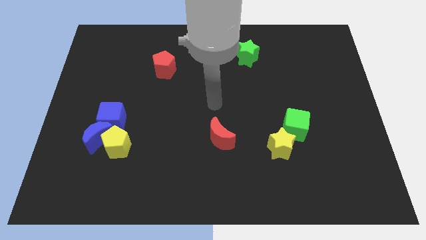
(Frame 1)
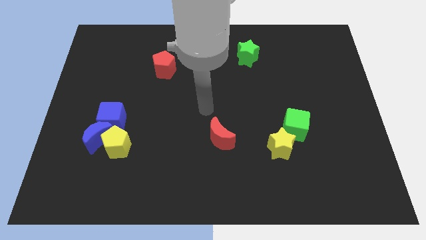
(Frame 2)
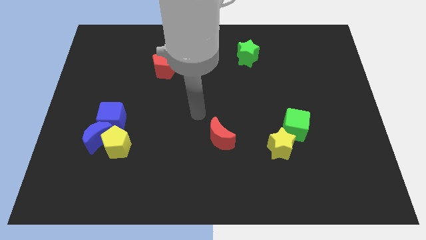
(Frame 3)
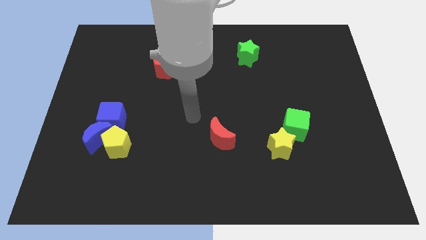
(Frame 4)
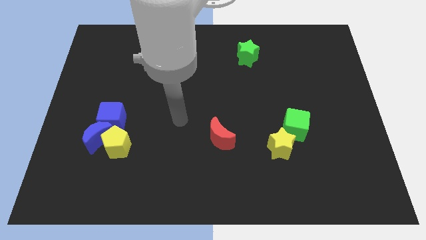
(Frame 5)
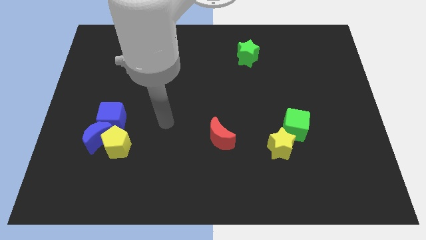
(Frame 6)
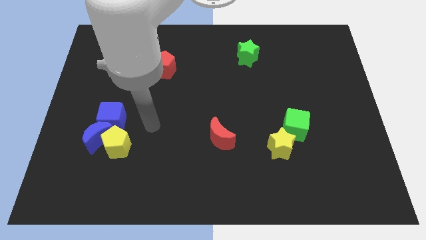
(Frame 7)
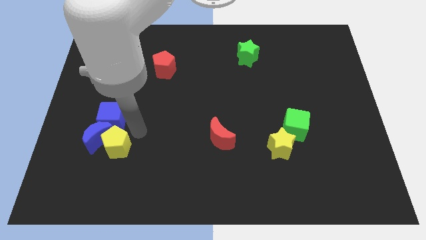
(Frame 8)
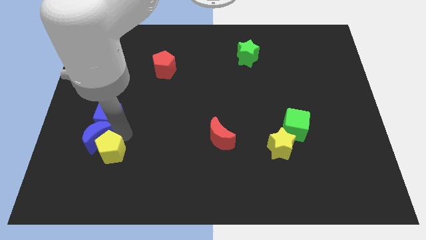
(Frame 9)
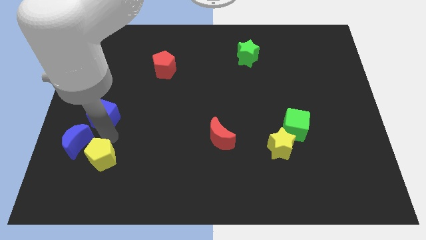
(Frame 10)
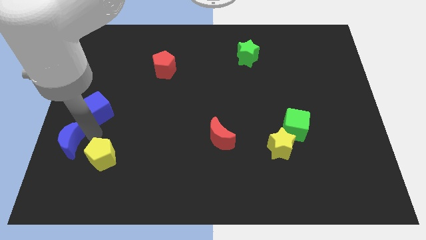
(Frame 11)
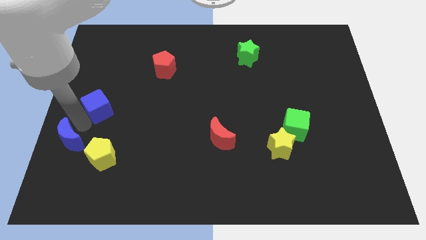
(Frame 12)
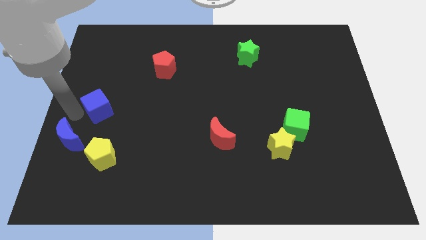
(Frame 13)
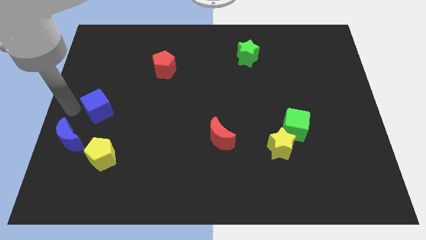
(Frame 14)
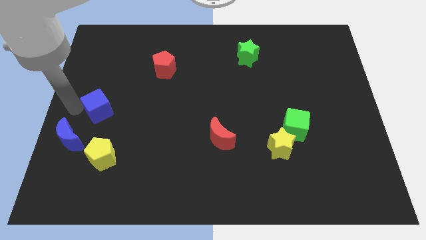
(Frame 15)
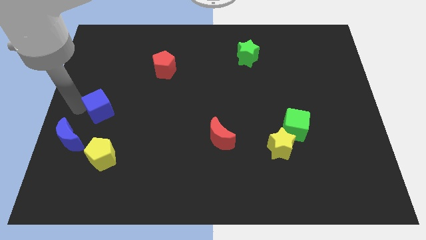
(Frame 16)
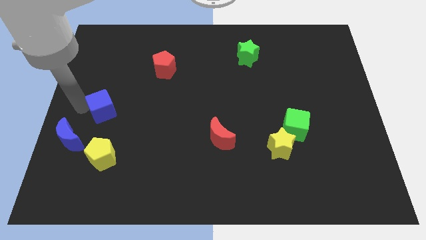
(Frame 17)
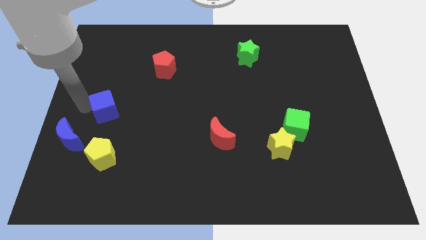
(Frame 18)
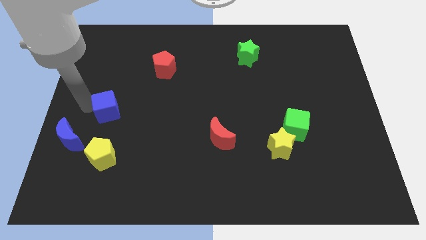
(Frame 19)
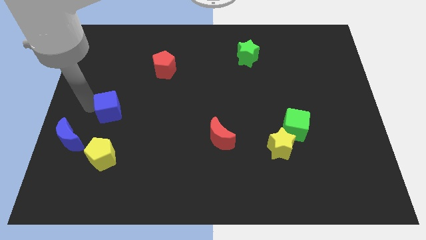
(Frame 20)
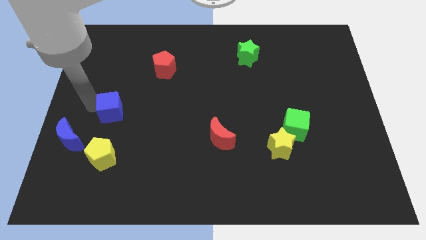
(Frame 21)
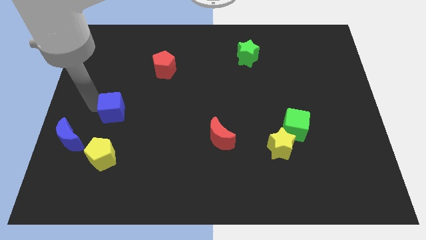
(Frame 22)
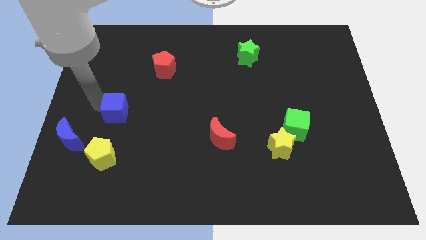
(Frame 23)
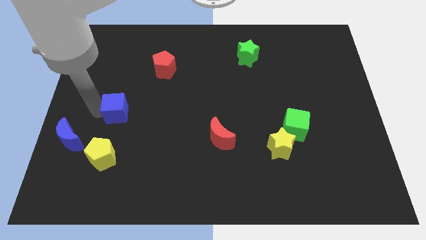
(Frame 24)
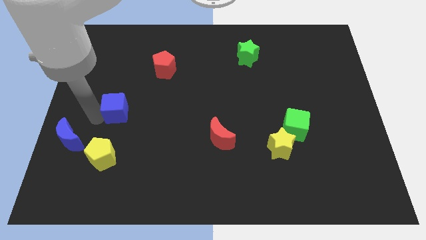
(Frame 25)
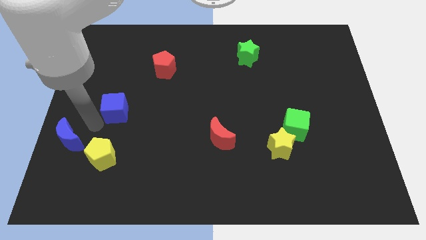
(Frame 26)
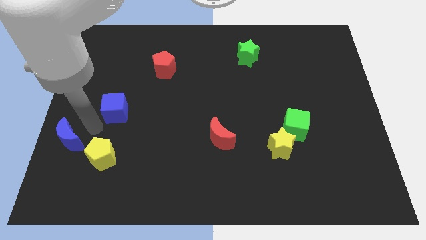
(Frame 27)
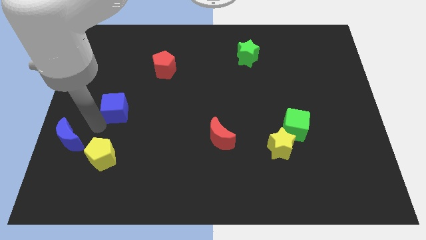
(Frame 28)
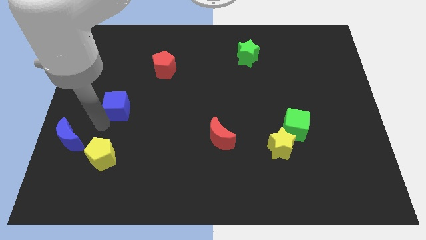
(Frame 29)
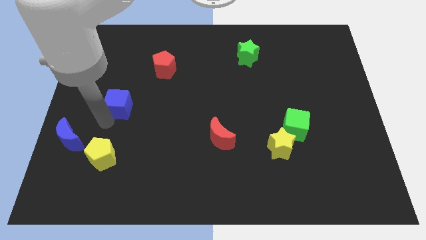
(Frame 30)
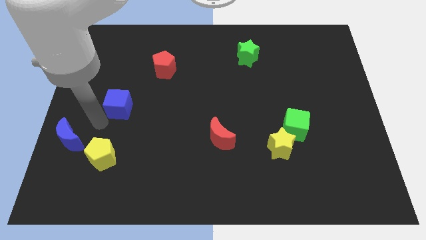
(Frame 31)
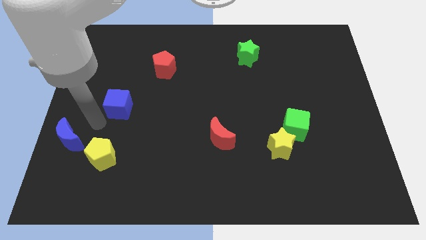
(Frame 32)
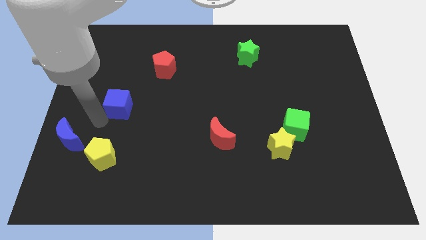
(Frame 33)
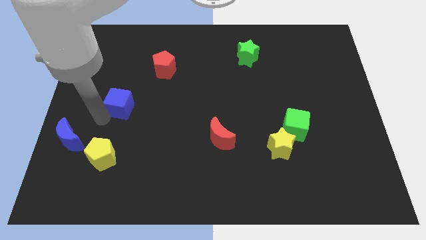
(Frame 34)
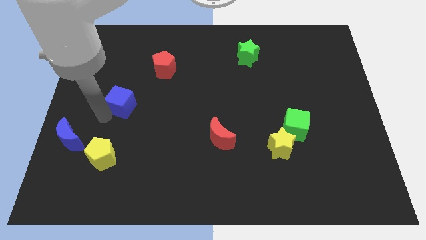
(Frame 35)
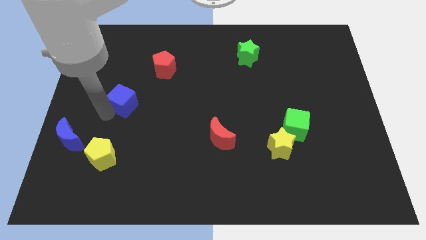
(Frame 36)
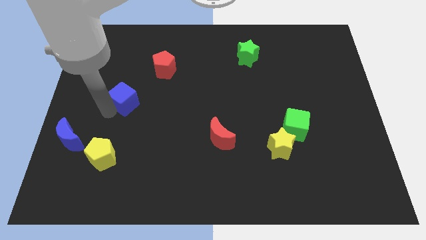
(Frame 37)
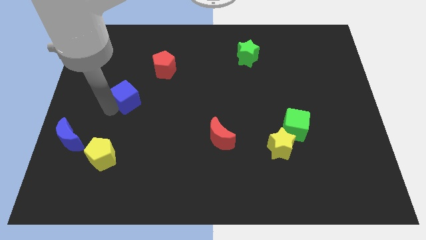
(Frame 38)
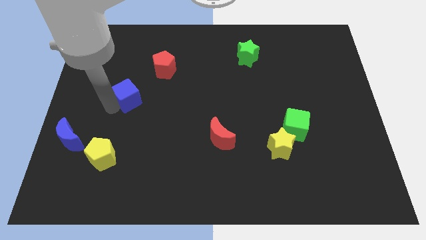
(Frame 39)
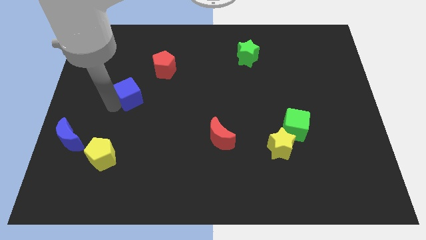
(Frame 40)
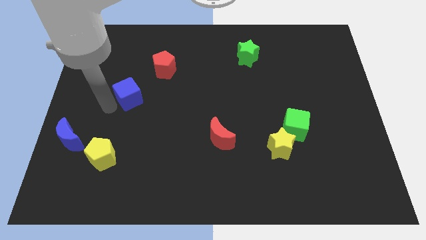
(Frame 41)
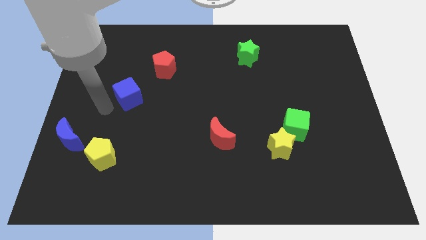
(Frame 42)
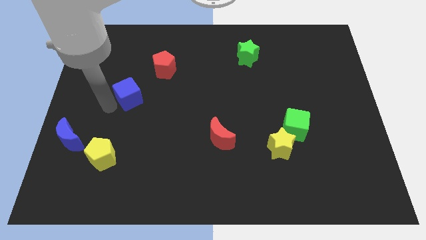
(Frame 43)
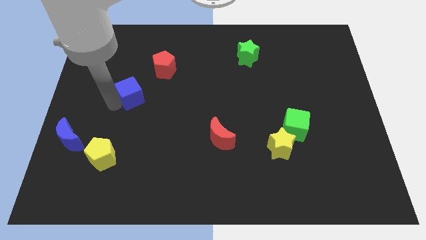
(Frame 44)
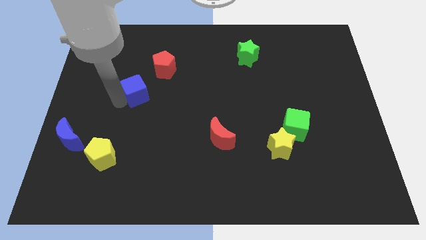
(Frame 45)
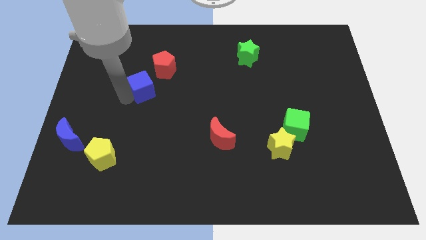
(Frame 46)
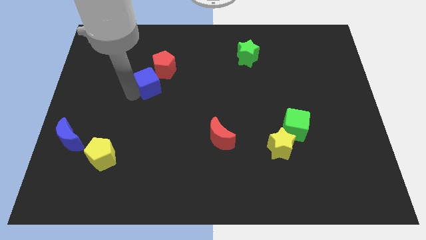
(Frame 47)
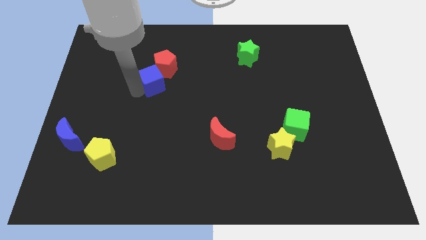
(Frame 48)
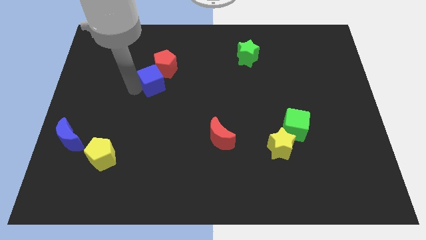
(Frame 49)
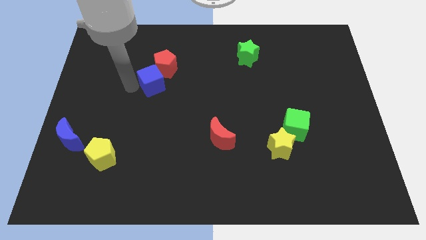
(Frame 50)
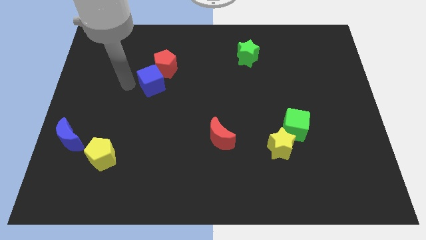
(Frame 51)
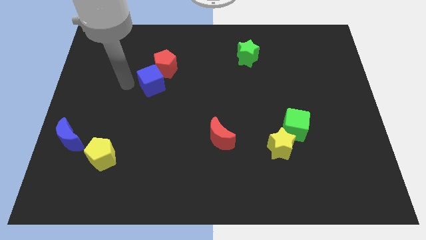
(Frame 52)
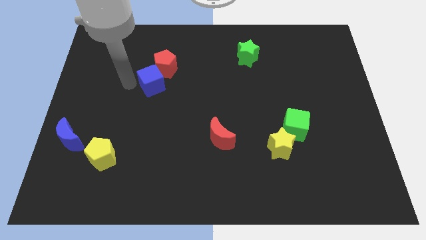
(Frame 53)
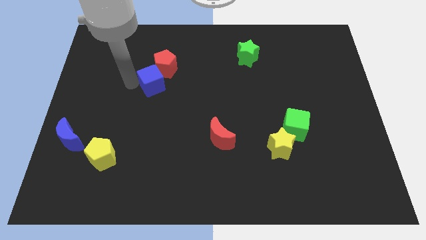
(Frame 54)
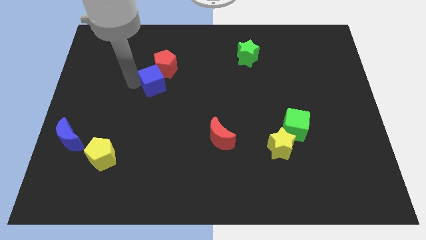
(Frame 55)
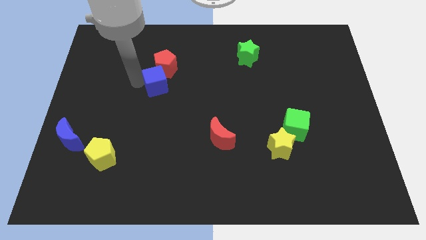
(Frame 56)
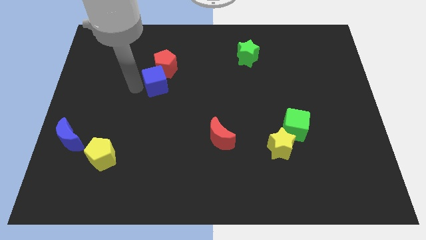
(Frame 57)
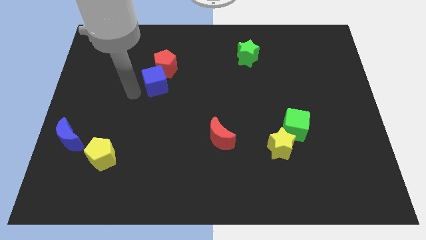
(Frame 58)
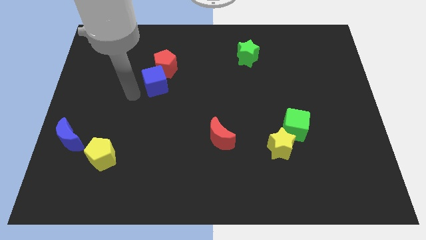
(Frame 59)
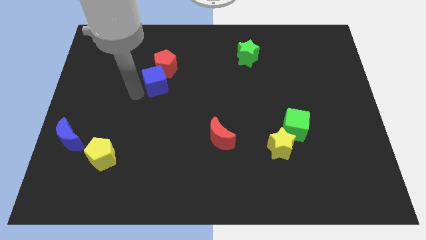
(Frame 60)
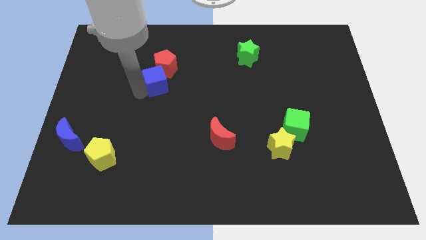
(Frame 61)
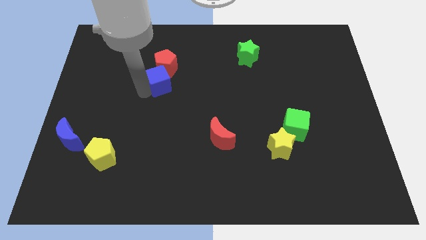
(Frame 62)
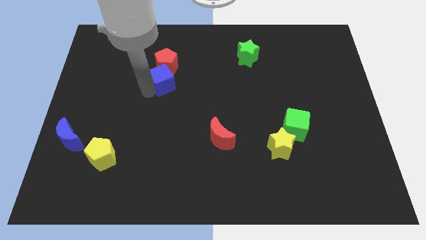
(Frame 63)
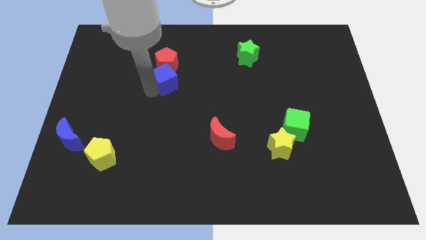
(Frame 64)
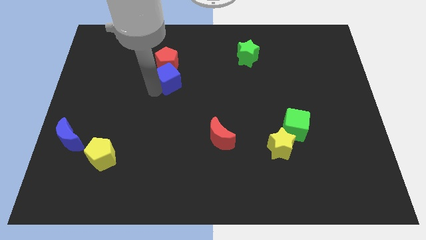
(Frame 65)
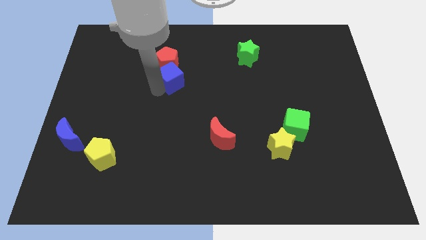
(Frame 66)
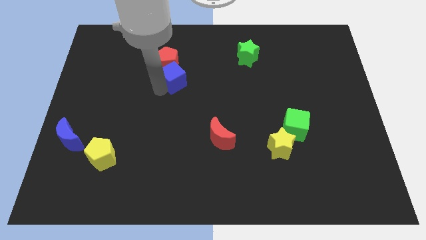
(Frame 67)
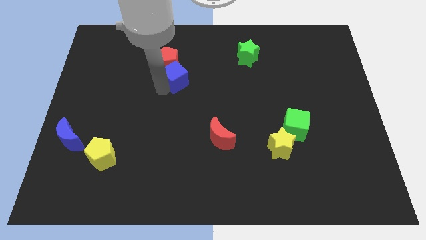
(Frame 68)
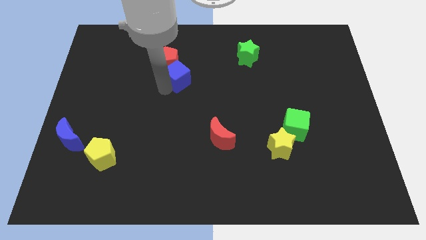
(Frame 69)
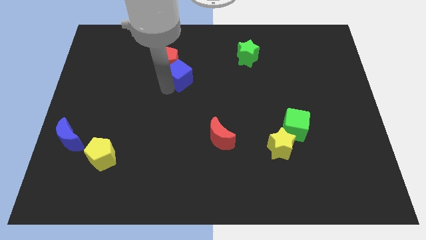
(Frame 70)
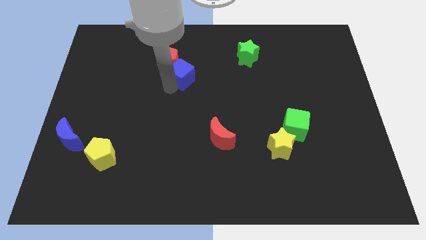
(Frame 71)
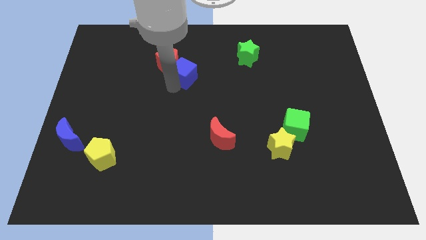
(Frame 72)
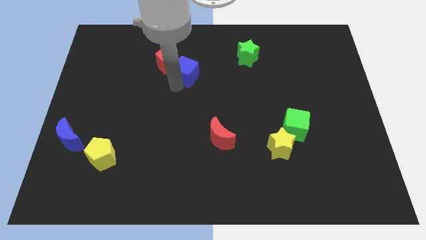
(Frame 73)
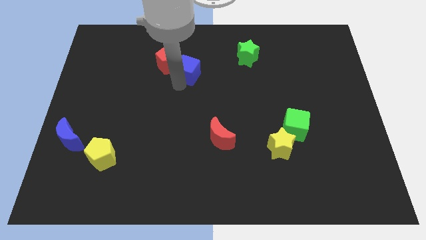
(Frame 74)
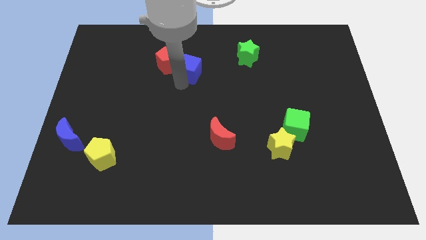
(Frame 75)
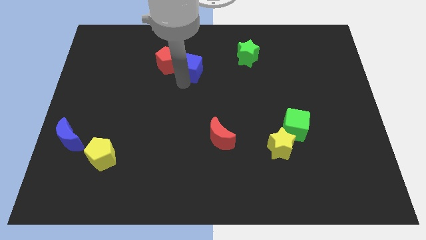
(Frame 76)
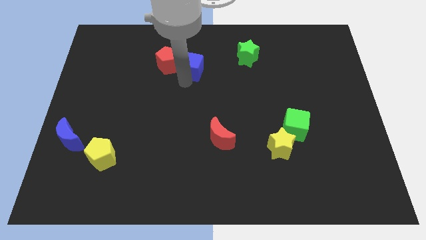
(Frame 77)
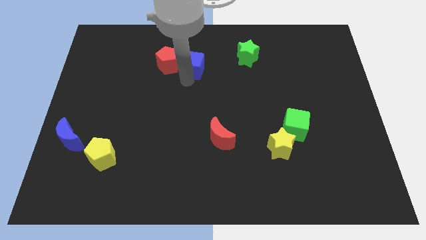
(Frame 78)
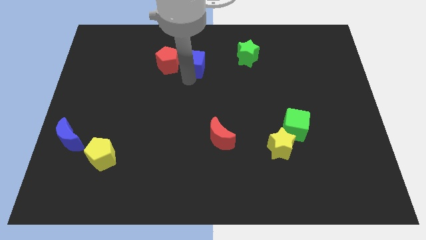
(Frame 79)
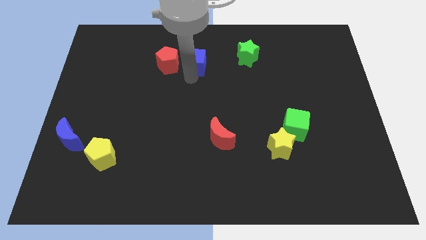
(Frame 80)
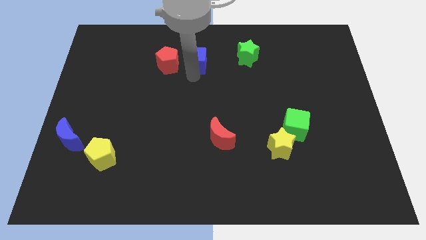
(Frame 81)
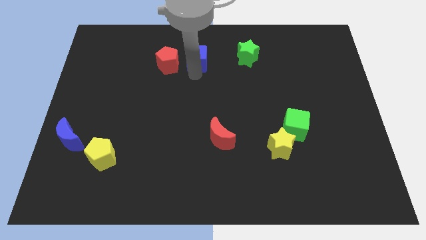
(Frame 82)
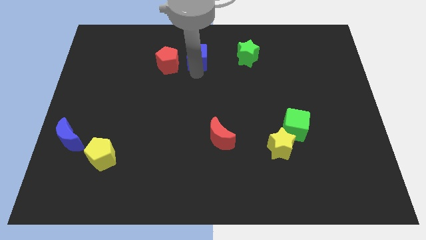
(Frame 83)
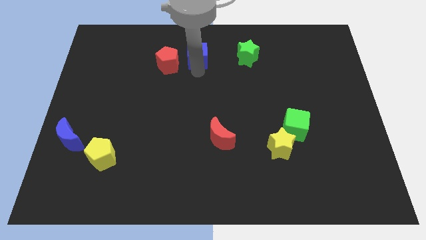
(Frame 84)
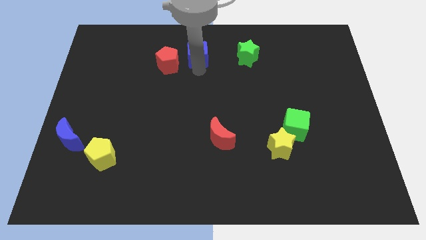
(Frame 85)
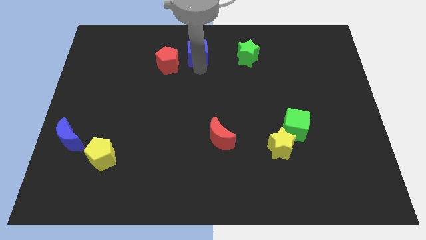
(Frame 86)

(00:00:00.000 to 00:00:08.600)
put the blue cube to the top side
